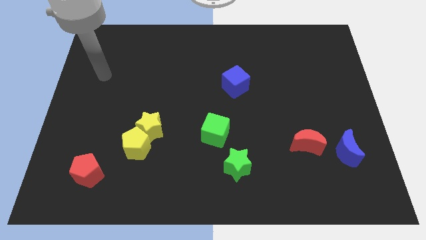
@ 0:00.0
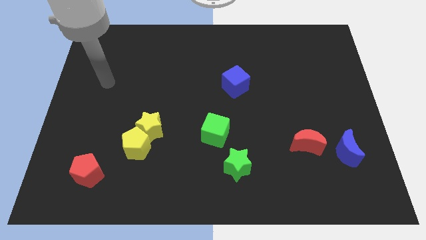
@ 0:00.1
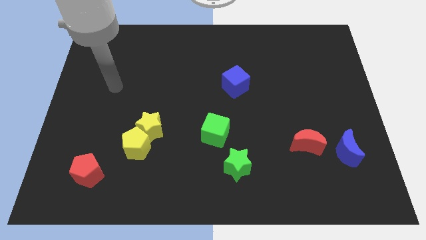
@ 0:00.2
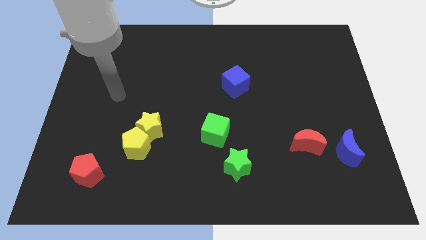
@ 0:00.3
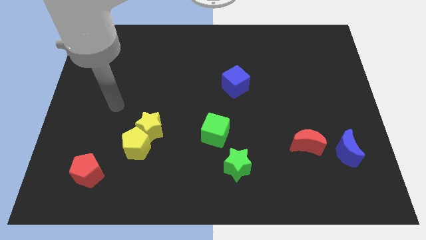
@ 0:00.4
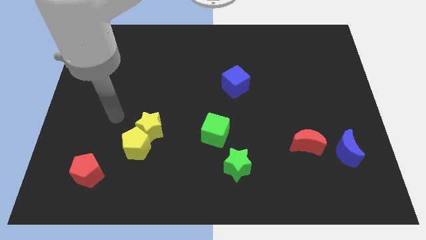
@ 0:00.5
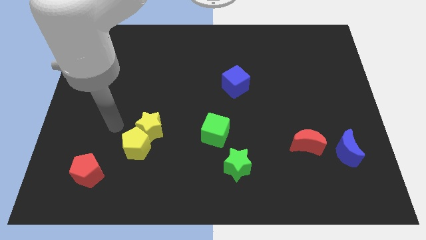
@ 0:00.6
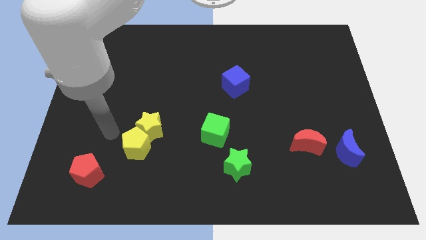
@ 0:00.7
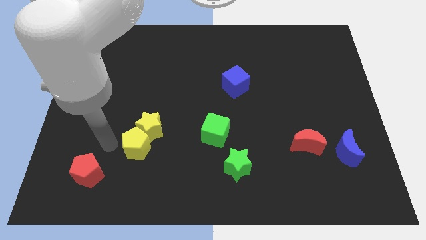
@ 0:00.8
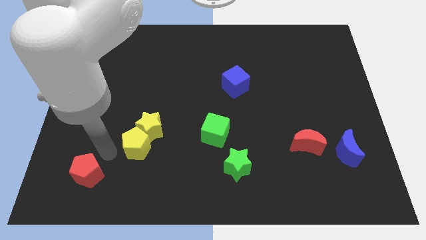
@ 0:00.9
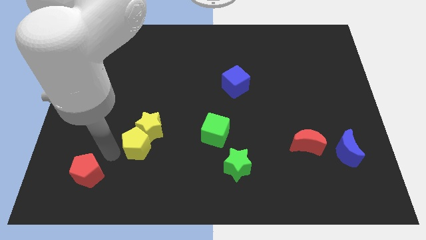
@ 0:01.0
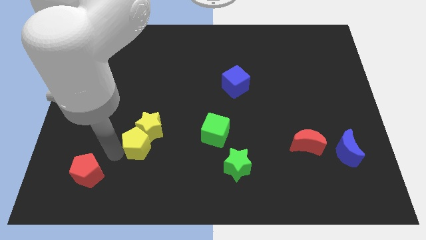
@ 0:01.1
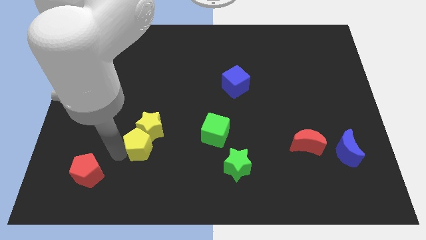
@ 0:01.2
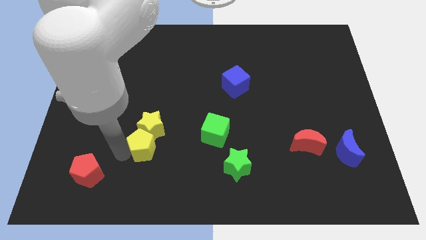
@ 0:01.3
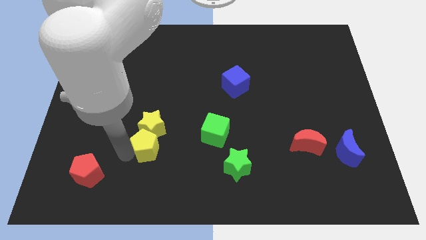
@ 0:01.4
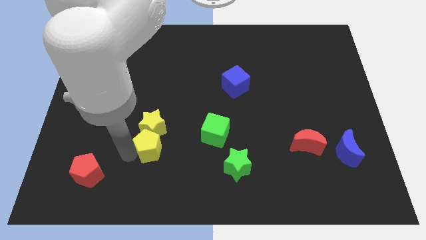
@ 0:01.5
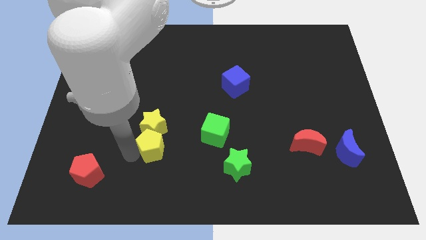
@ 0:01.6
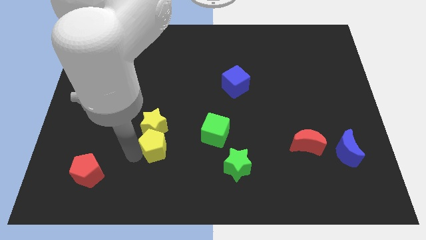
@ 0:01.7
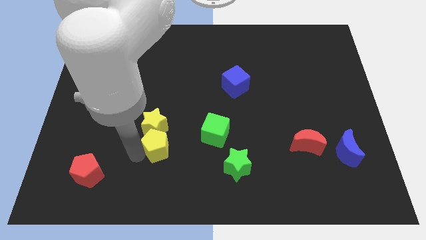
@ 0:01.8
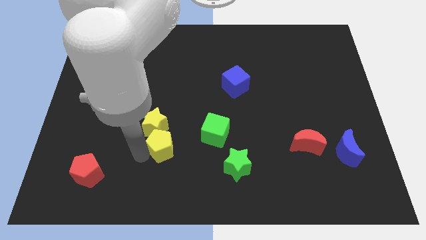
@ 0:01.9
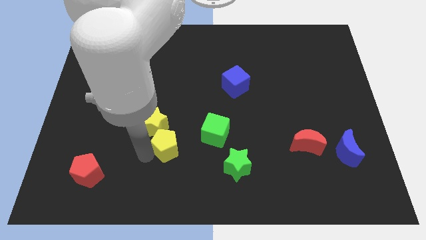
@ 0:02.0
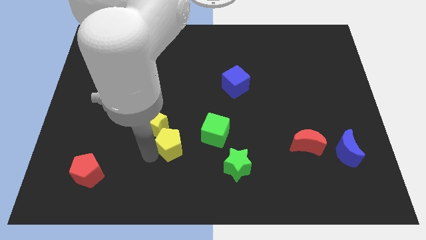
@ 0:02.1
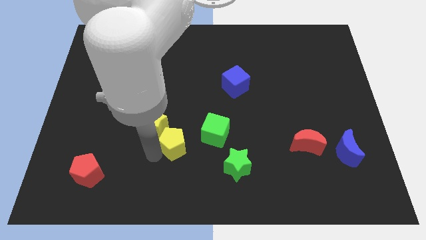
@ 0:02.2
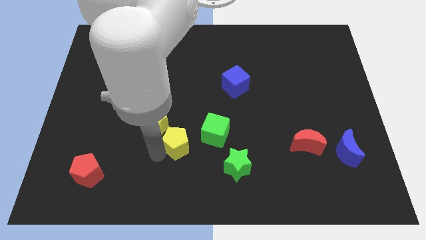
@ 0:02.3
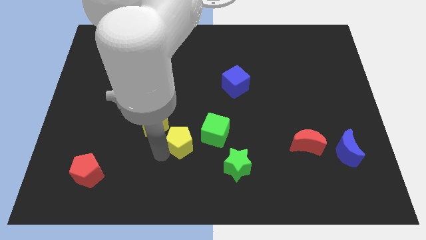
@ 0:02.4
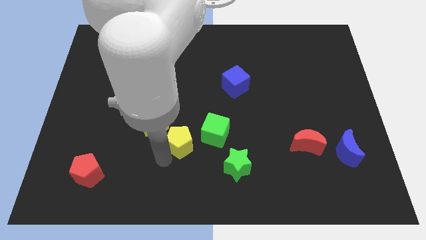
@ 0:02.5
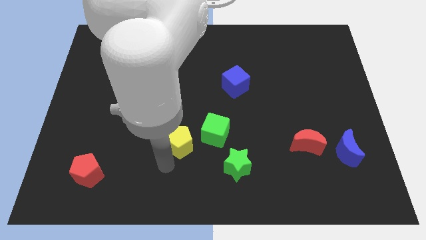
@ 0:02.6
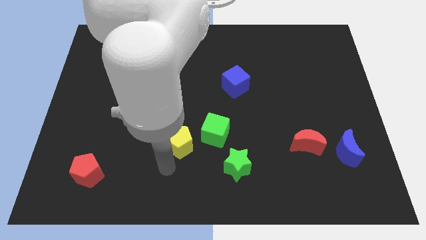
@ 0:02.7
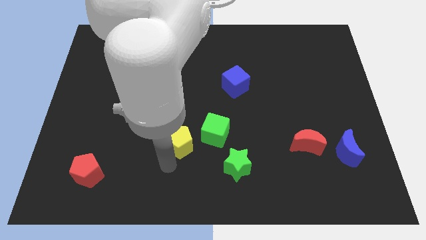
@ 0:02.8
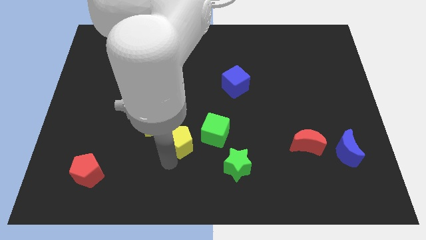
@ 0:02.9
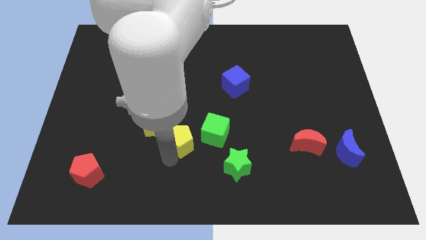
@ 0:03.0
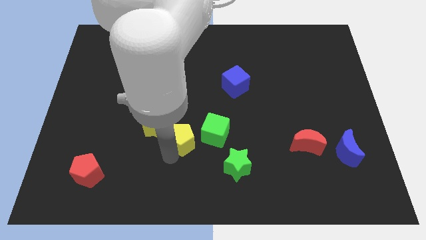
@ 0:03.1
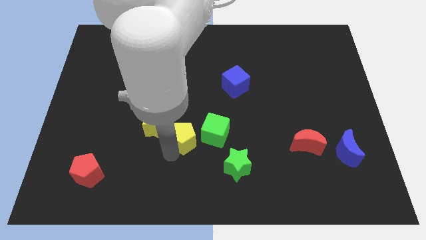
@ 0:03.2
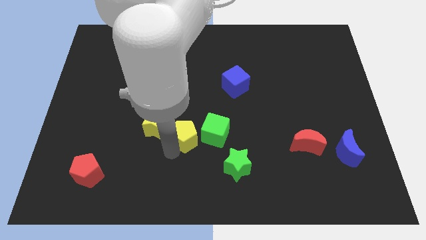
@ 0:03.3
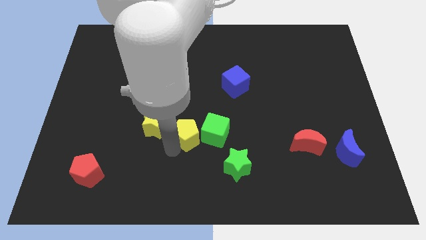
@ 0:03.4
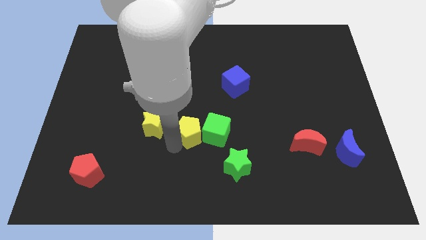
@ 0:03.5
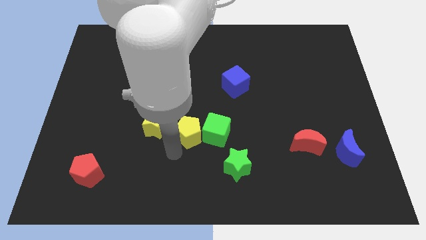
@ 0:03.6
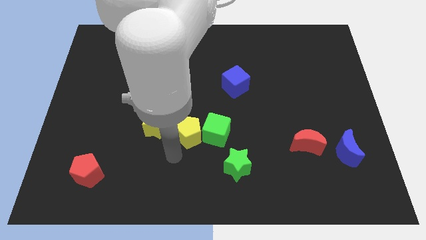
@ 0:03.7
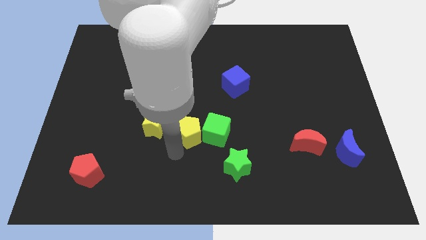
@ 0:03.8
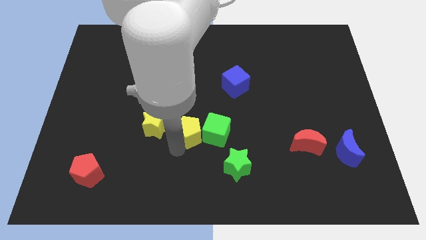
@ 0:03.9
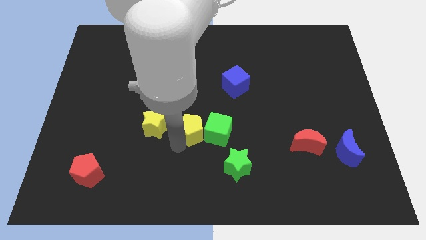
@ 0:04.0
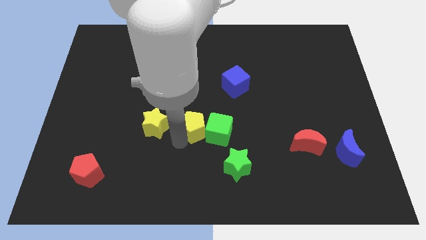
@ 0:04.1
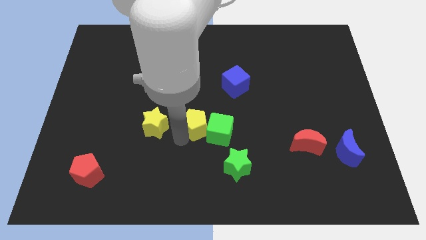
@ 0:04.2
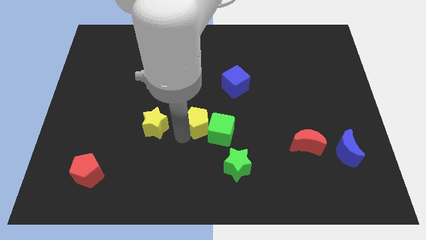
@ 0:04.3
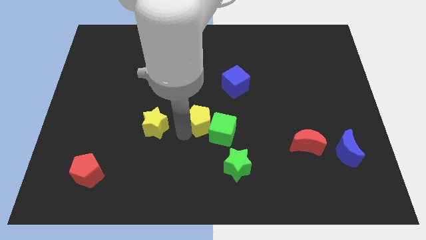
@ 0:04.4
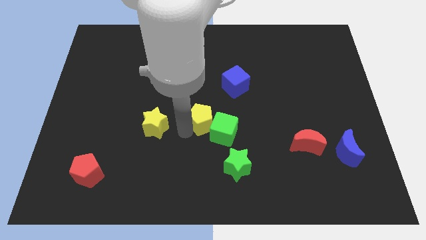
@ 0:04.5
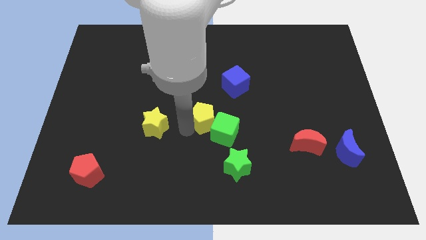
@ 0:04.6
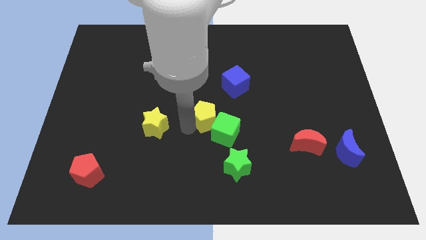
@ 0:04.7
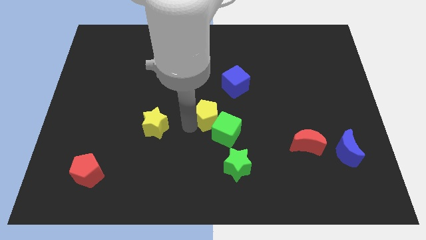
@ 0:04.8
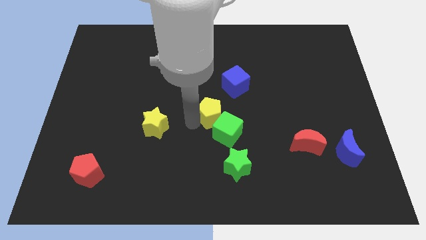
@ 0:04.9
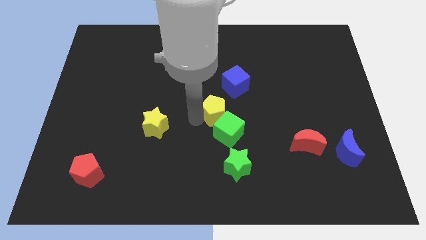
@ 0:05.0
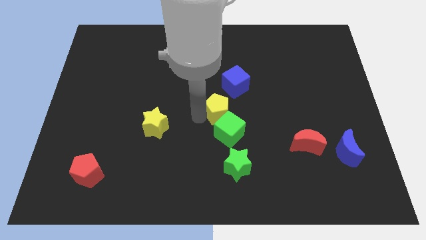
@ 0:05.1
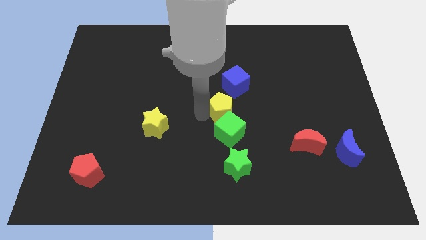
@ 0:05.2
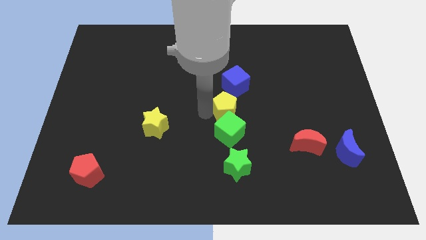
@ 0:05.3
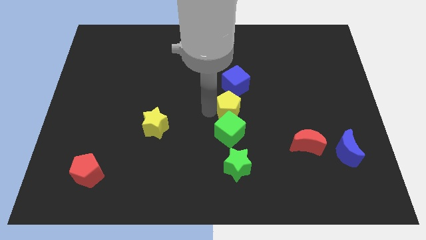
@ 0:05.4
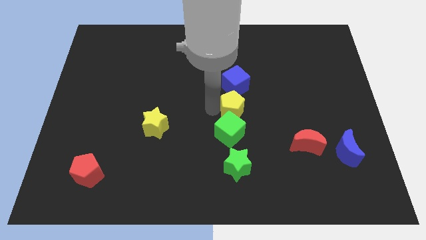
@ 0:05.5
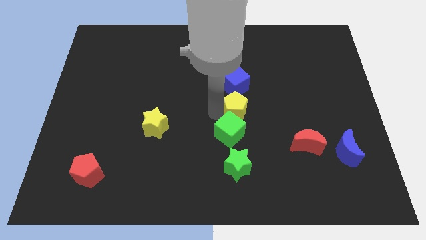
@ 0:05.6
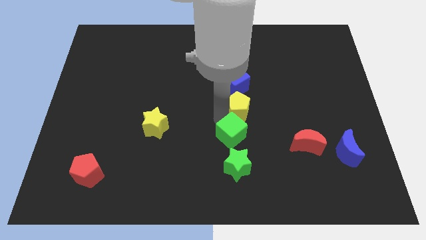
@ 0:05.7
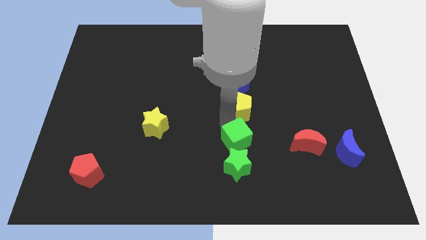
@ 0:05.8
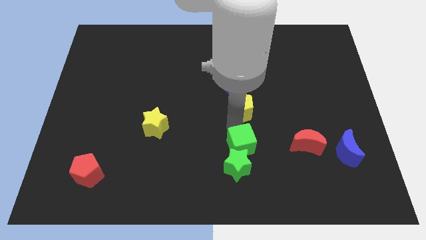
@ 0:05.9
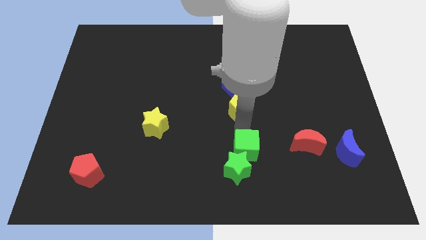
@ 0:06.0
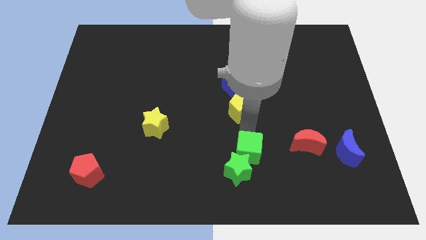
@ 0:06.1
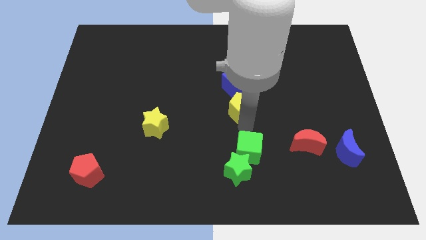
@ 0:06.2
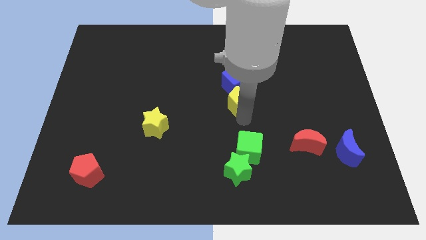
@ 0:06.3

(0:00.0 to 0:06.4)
slide the yellow pentagon towards the blue cube

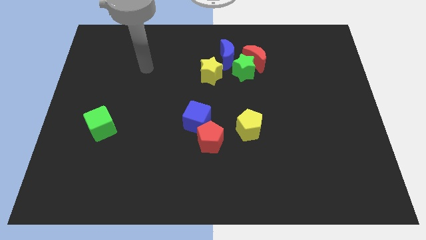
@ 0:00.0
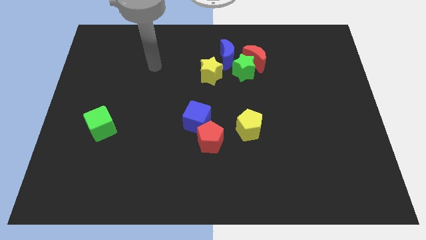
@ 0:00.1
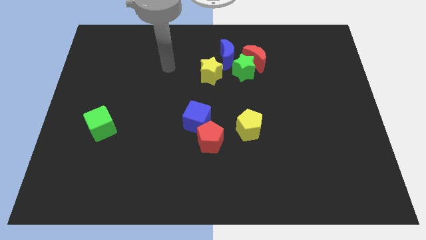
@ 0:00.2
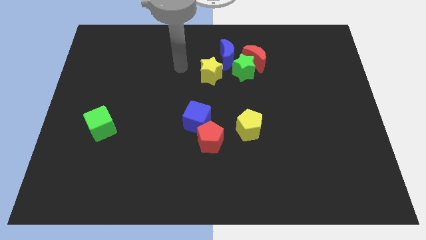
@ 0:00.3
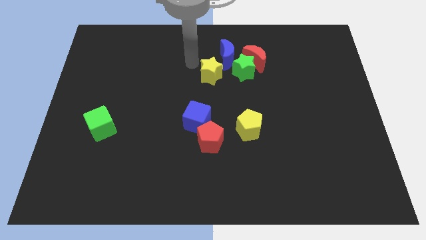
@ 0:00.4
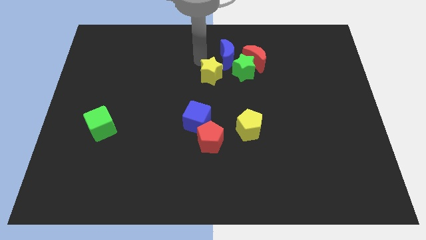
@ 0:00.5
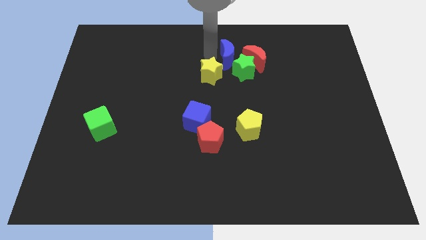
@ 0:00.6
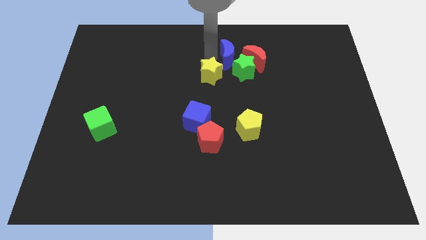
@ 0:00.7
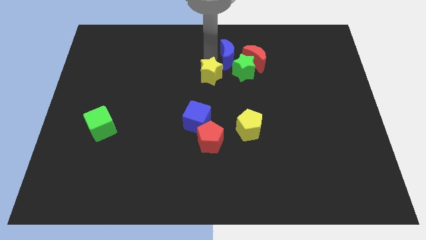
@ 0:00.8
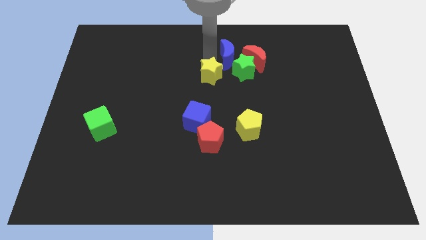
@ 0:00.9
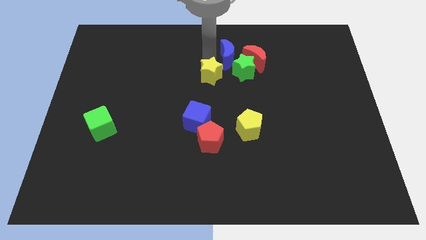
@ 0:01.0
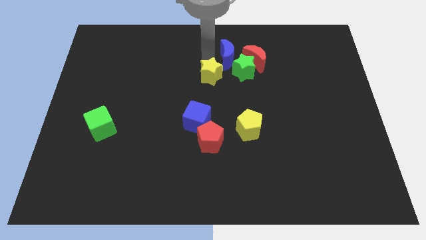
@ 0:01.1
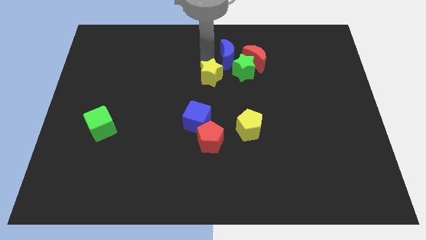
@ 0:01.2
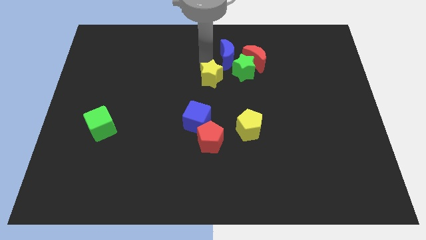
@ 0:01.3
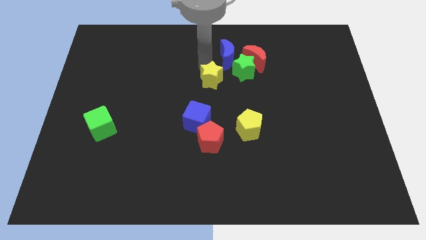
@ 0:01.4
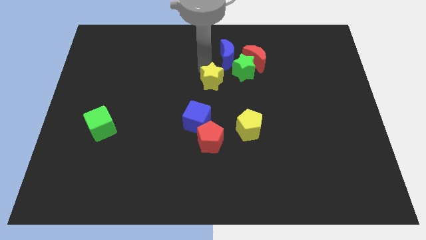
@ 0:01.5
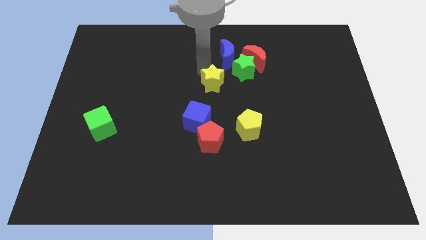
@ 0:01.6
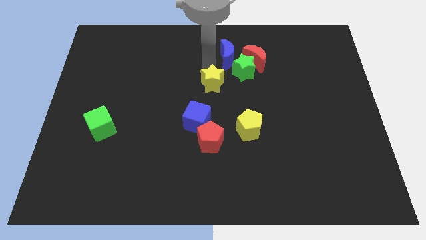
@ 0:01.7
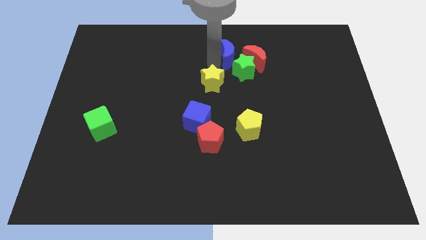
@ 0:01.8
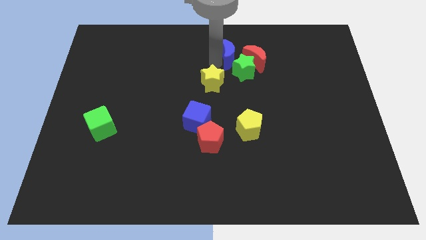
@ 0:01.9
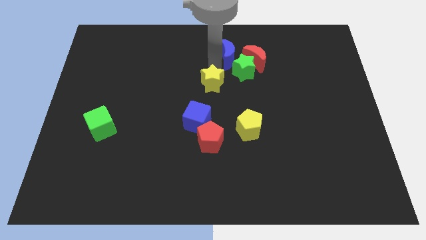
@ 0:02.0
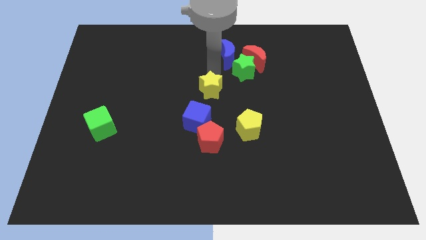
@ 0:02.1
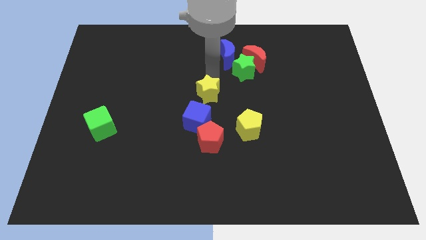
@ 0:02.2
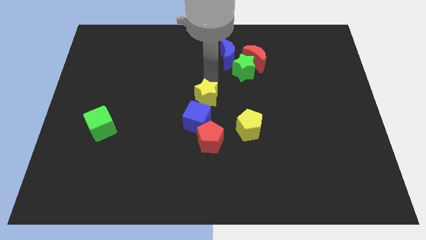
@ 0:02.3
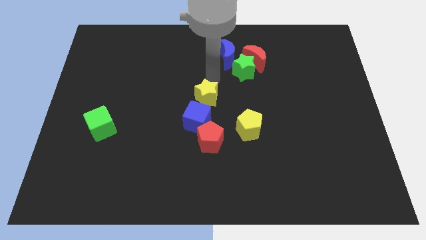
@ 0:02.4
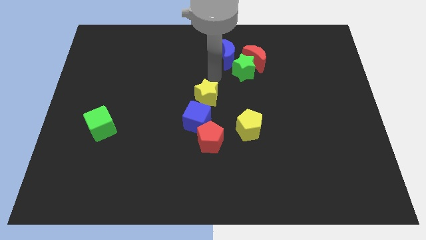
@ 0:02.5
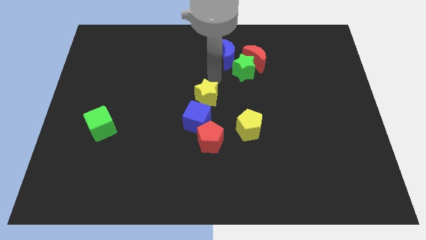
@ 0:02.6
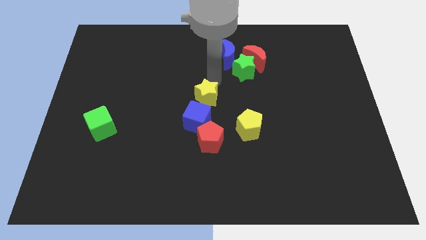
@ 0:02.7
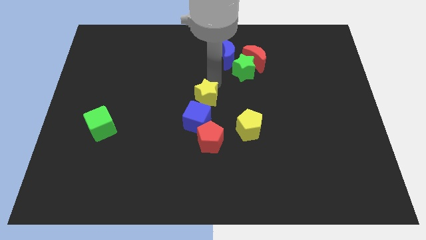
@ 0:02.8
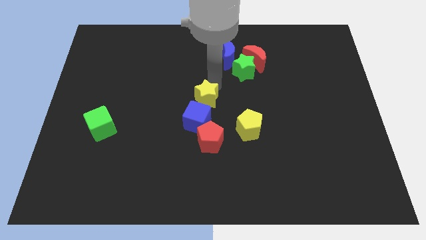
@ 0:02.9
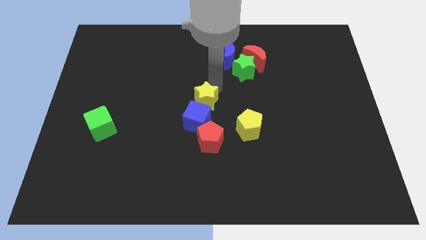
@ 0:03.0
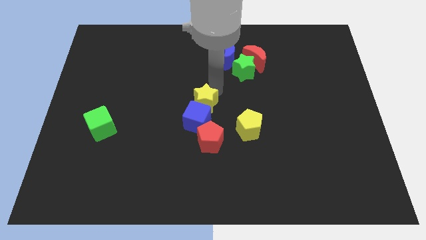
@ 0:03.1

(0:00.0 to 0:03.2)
put the yellow star towards the blue cube
